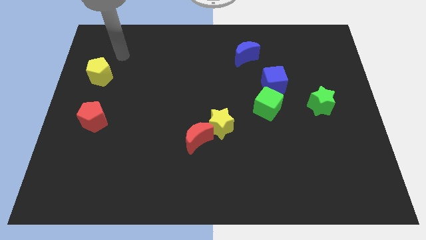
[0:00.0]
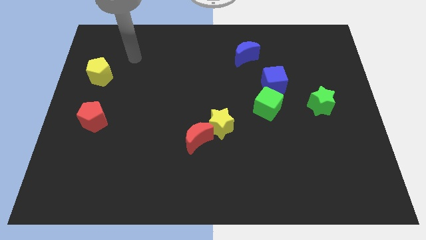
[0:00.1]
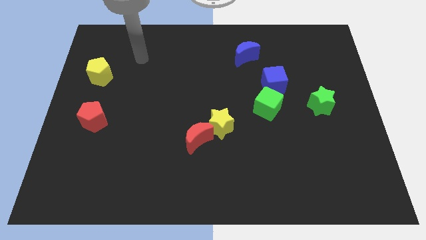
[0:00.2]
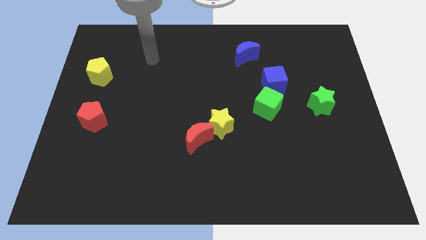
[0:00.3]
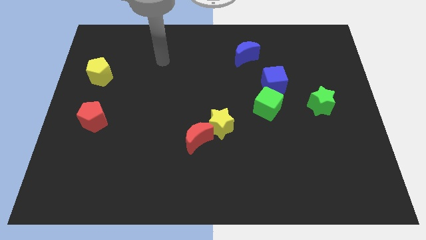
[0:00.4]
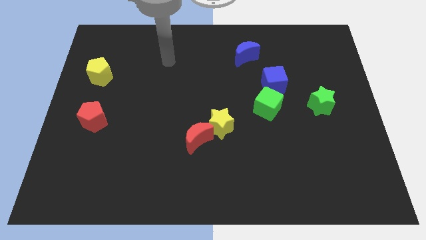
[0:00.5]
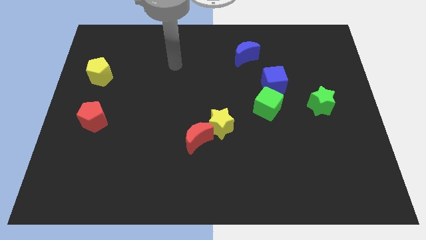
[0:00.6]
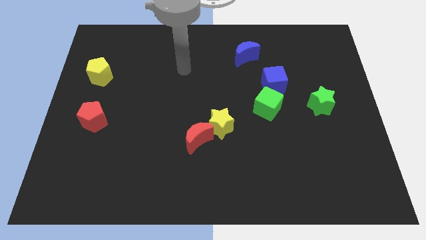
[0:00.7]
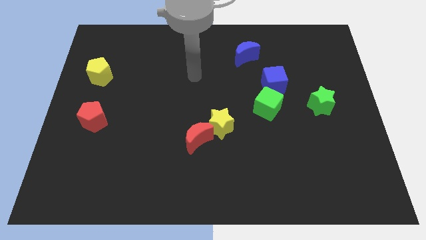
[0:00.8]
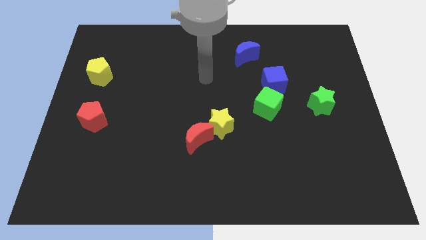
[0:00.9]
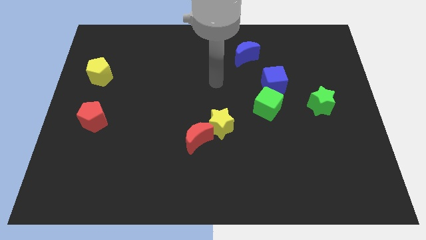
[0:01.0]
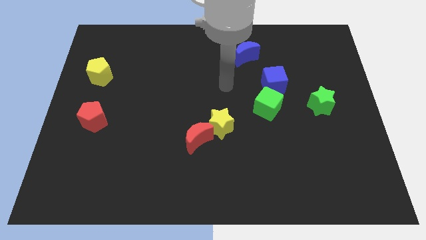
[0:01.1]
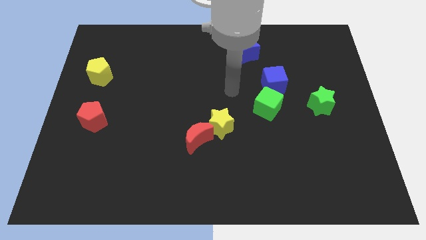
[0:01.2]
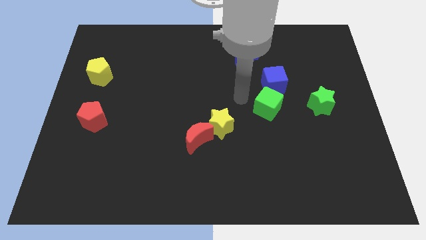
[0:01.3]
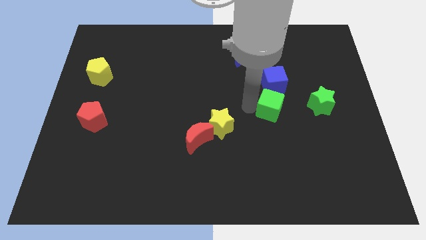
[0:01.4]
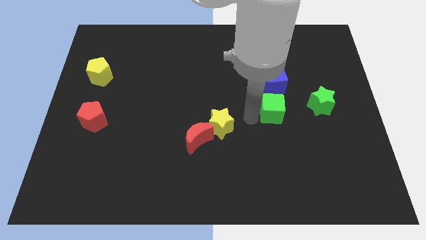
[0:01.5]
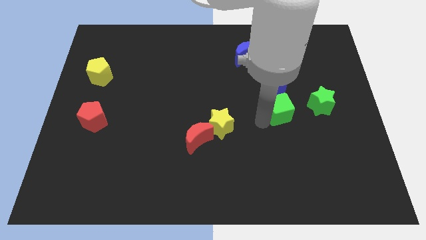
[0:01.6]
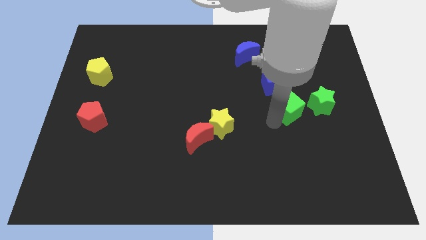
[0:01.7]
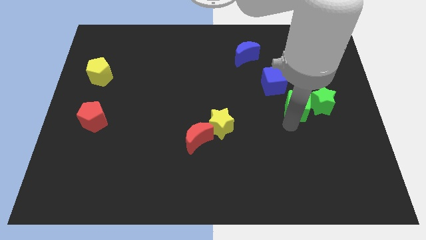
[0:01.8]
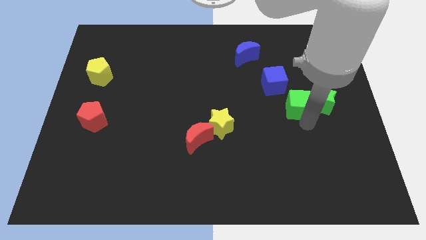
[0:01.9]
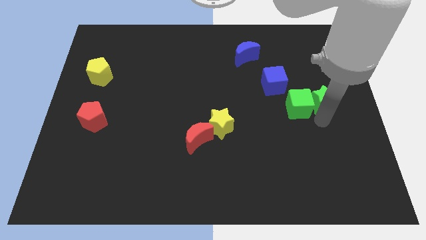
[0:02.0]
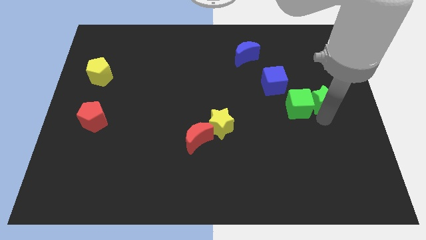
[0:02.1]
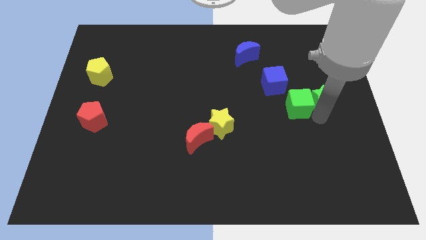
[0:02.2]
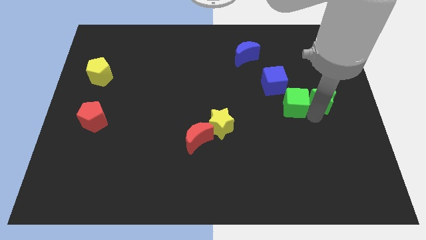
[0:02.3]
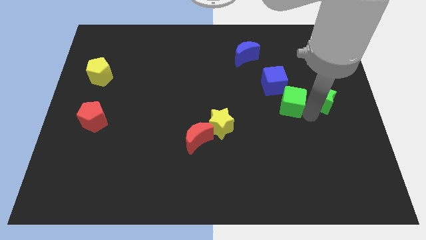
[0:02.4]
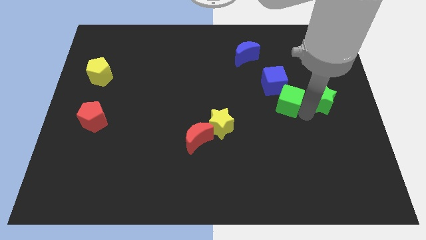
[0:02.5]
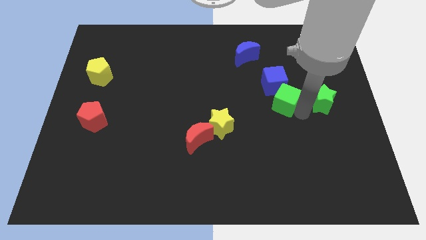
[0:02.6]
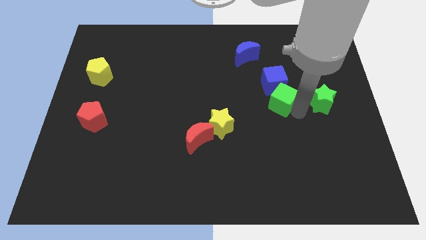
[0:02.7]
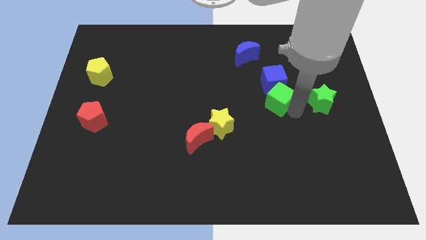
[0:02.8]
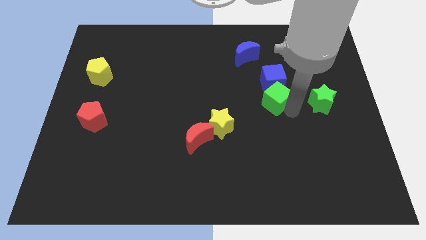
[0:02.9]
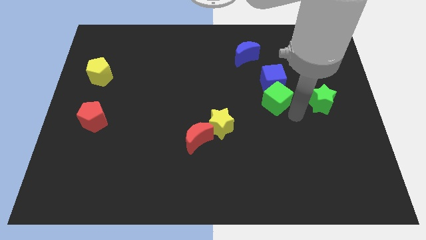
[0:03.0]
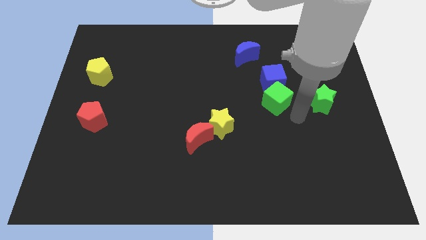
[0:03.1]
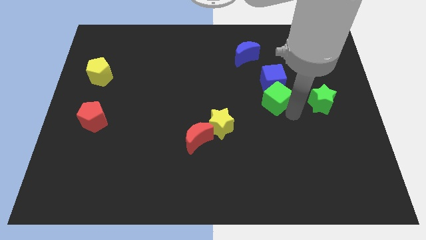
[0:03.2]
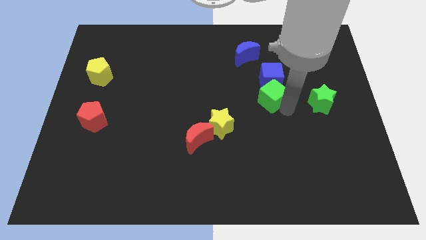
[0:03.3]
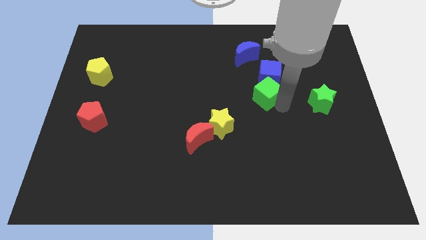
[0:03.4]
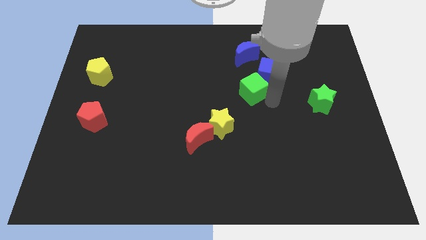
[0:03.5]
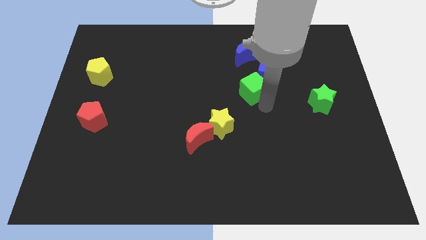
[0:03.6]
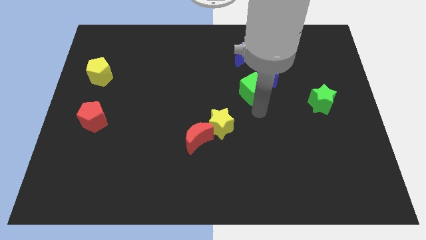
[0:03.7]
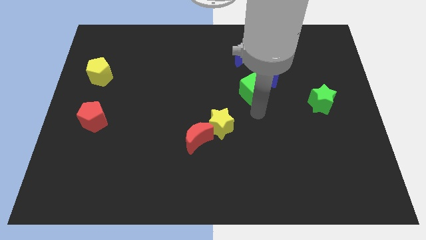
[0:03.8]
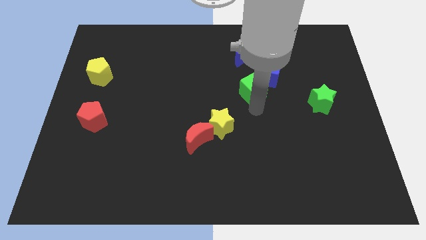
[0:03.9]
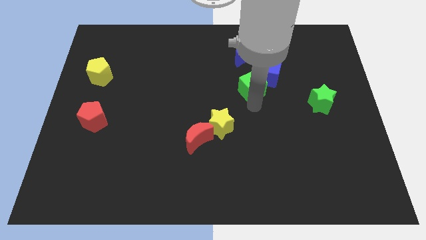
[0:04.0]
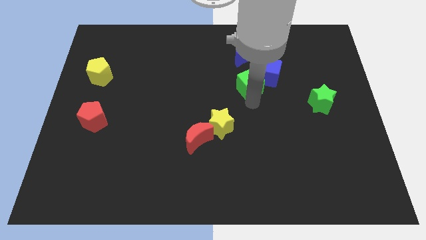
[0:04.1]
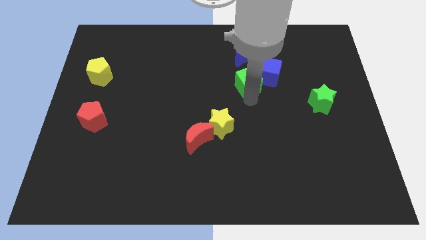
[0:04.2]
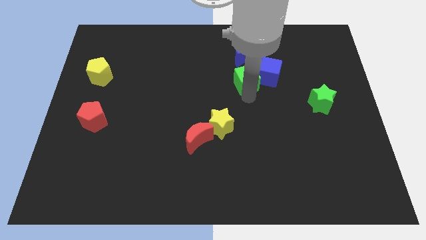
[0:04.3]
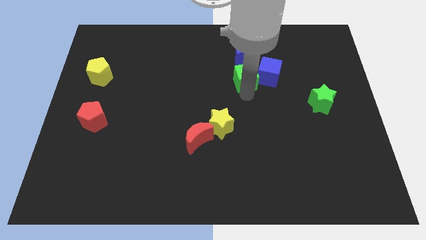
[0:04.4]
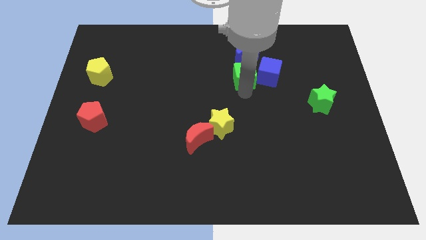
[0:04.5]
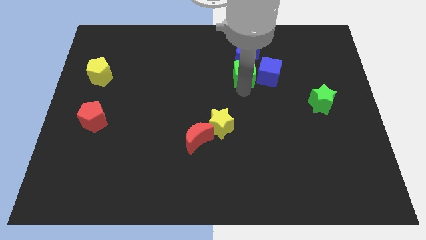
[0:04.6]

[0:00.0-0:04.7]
move the green cube to the top left side of the blue cube

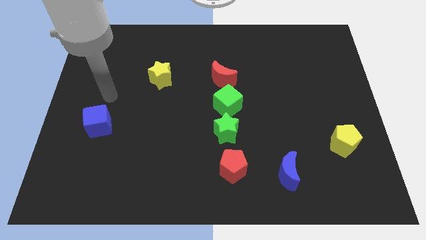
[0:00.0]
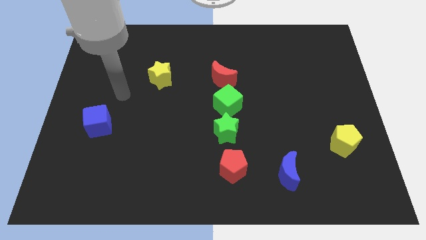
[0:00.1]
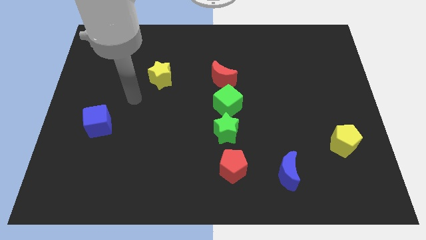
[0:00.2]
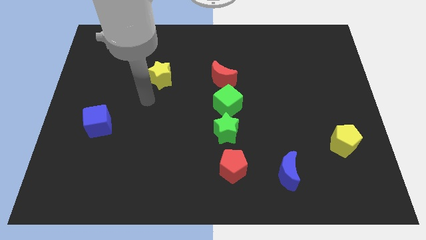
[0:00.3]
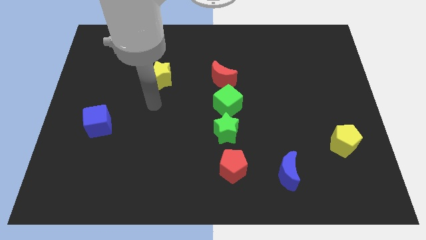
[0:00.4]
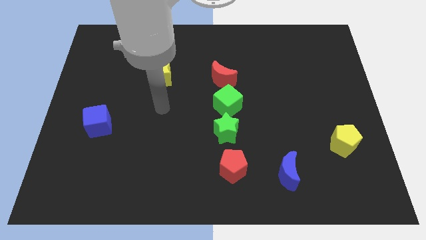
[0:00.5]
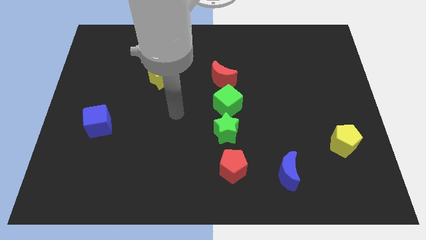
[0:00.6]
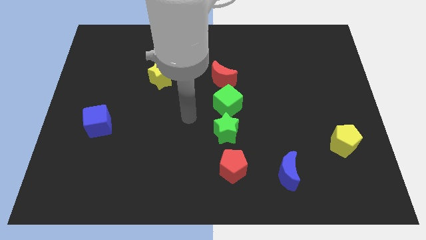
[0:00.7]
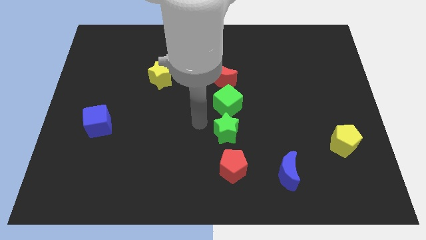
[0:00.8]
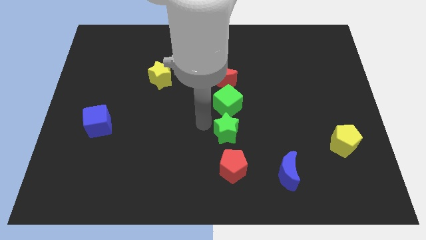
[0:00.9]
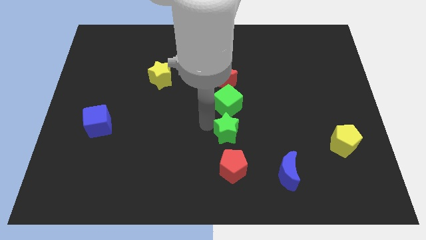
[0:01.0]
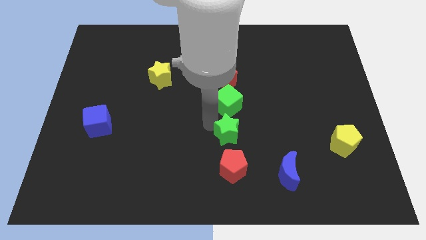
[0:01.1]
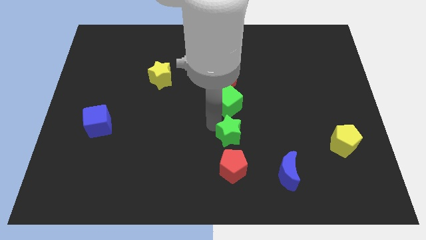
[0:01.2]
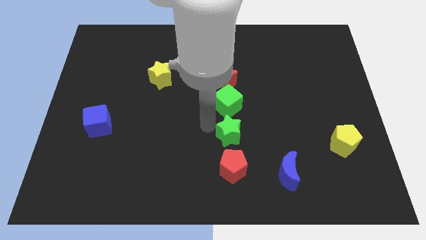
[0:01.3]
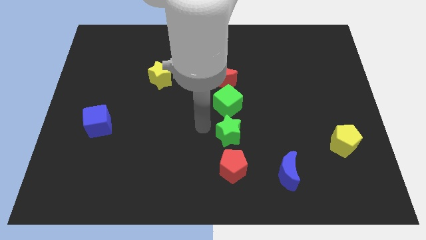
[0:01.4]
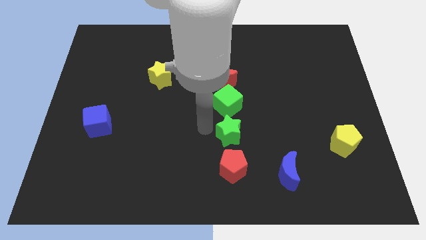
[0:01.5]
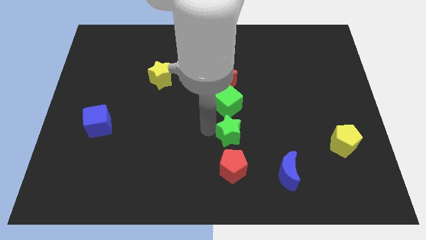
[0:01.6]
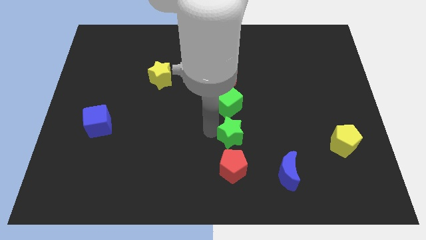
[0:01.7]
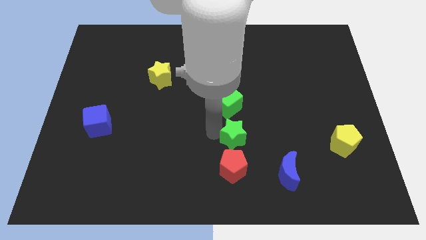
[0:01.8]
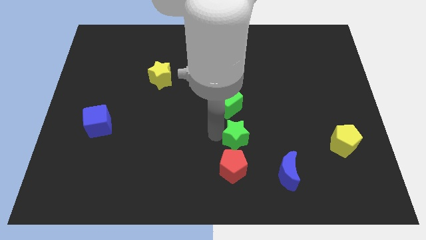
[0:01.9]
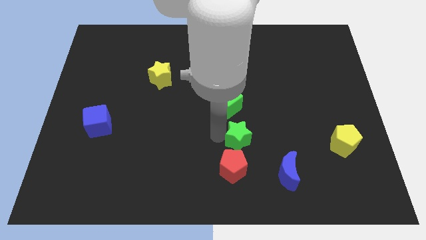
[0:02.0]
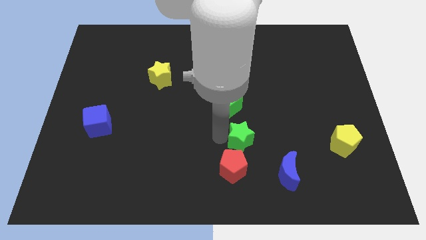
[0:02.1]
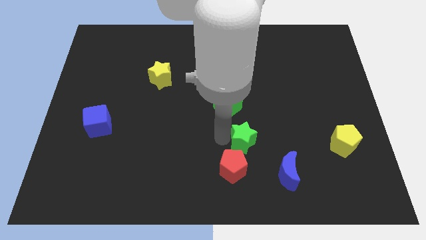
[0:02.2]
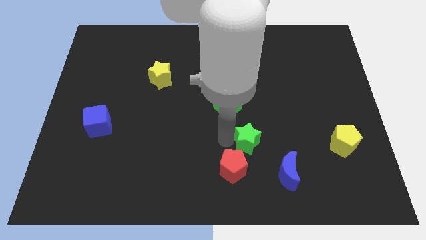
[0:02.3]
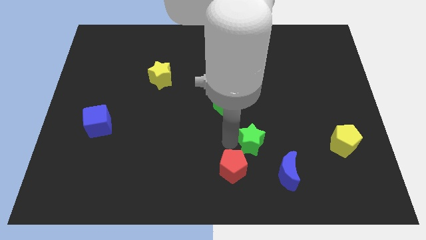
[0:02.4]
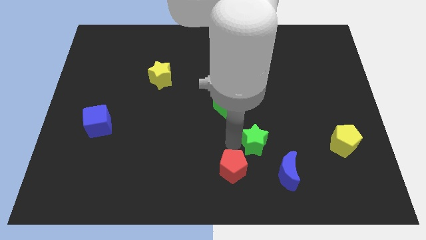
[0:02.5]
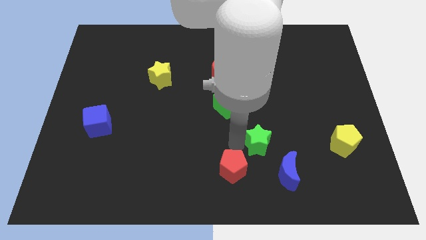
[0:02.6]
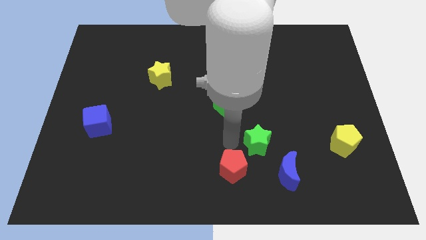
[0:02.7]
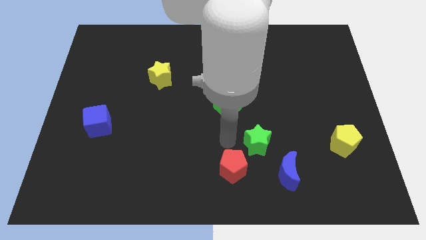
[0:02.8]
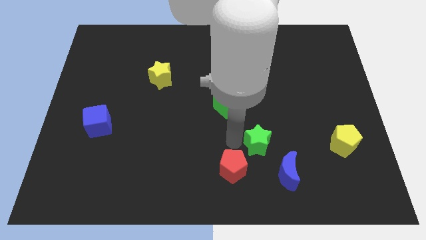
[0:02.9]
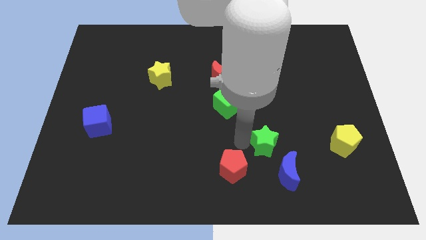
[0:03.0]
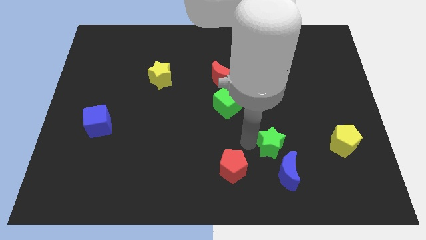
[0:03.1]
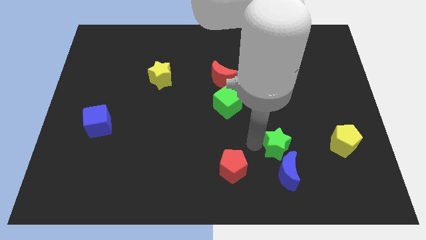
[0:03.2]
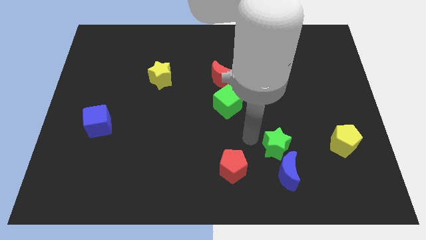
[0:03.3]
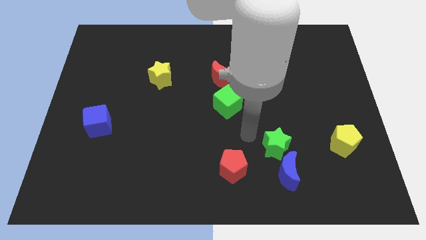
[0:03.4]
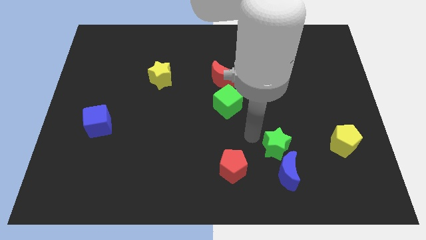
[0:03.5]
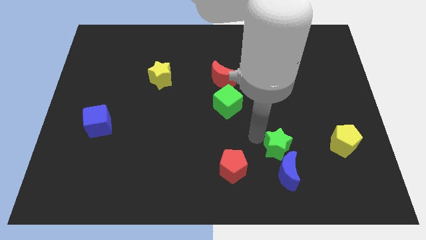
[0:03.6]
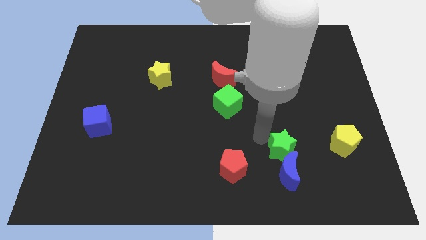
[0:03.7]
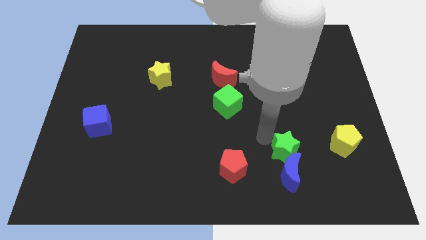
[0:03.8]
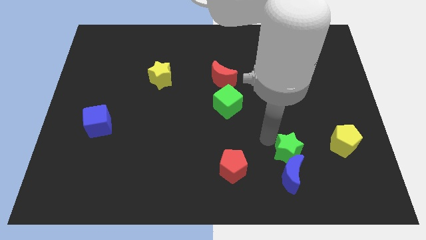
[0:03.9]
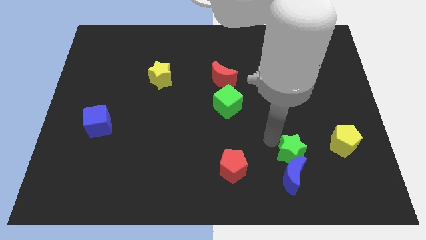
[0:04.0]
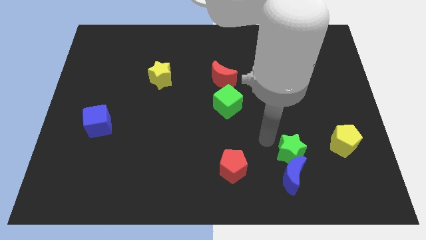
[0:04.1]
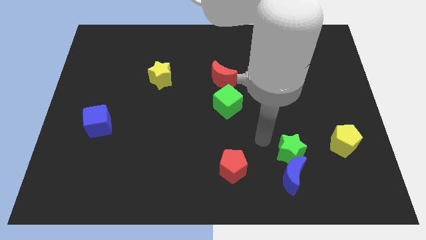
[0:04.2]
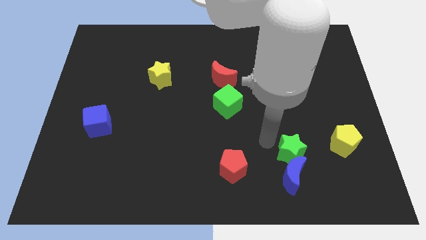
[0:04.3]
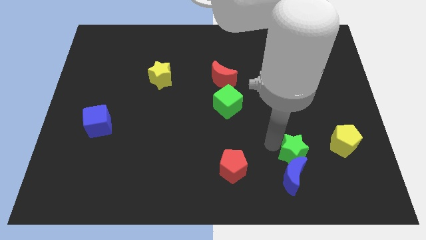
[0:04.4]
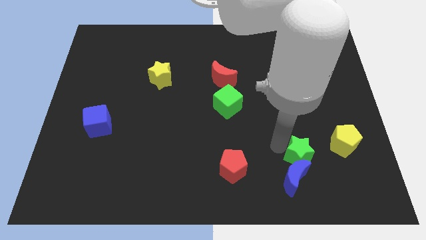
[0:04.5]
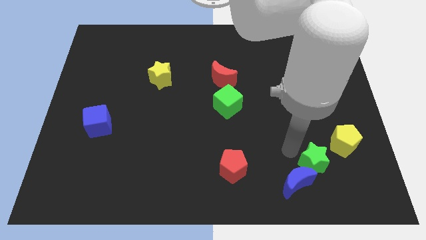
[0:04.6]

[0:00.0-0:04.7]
slide the green star to the right of the blue moon
